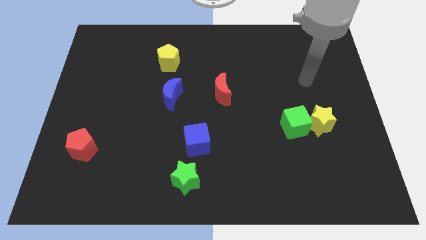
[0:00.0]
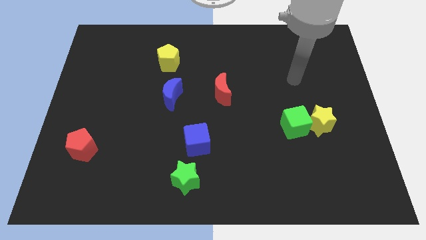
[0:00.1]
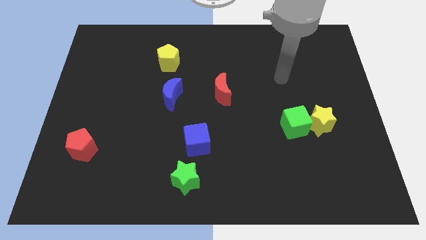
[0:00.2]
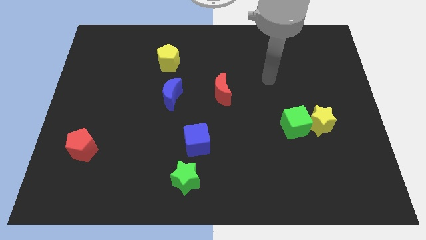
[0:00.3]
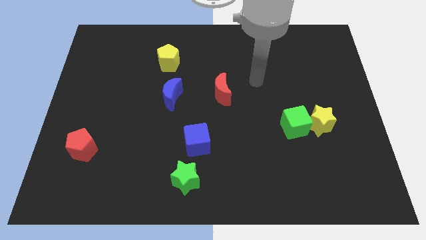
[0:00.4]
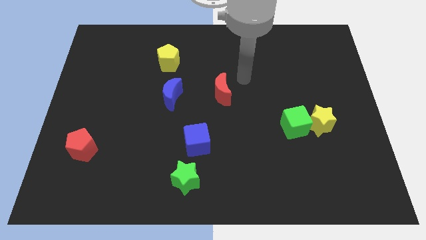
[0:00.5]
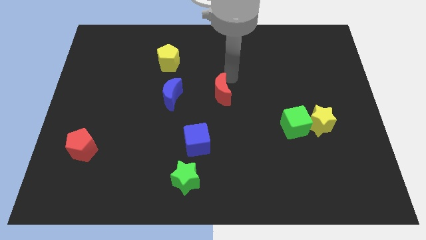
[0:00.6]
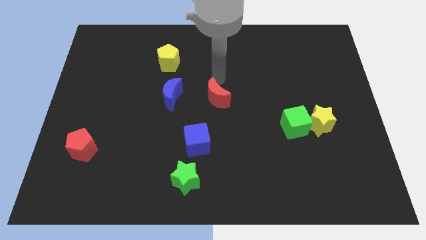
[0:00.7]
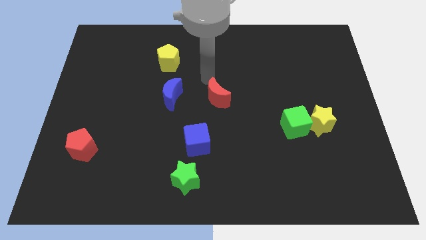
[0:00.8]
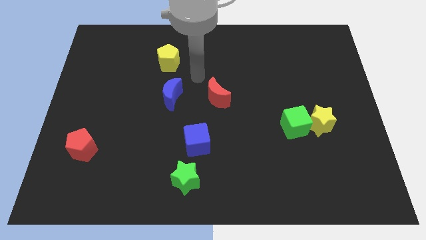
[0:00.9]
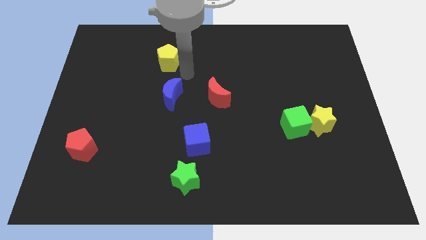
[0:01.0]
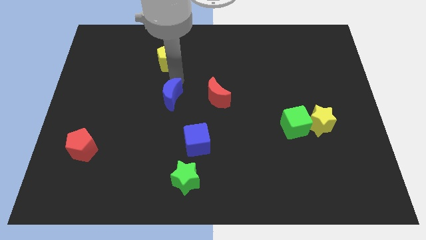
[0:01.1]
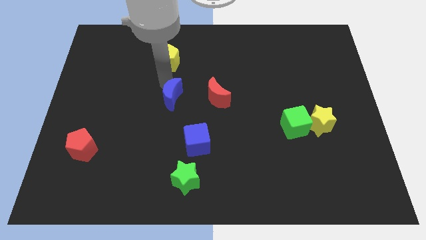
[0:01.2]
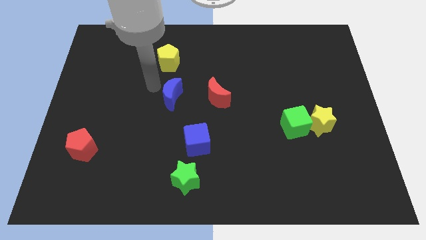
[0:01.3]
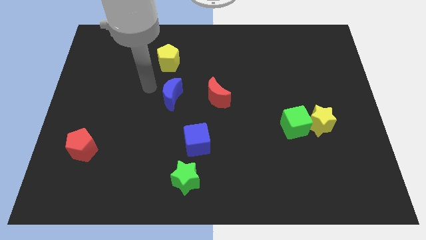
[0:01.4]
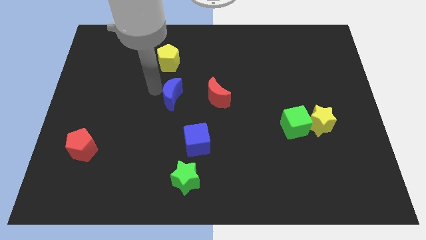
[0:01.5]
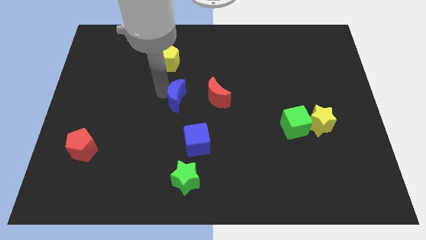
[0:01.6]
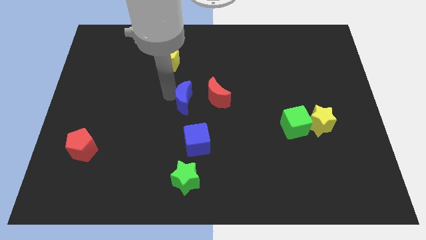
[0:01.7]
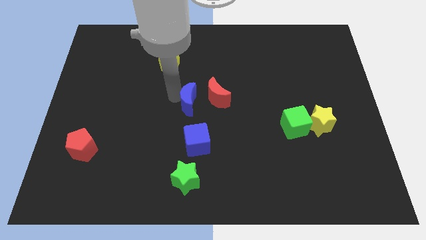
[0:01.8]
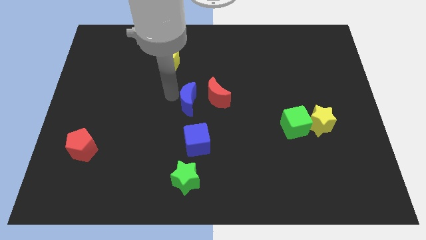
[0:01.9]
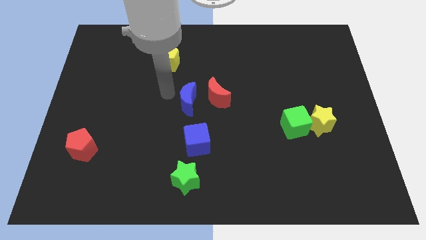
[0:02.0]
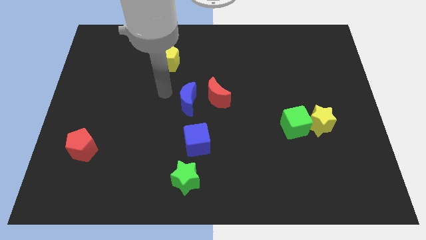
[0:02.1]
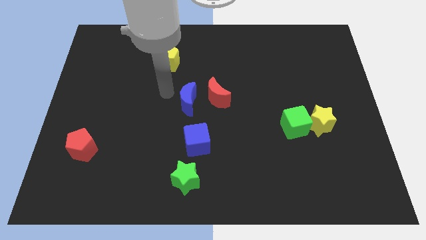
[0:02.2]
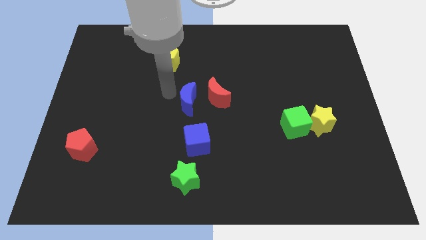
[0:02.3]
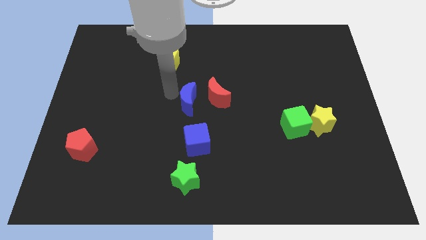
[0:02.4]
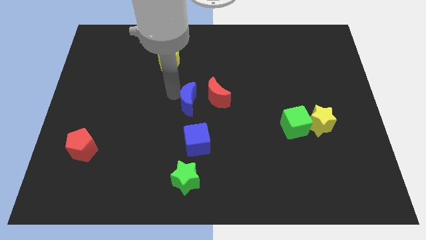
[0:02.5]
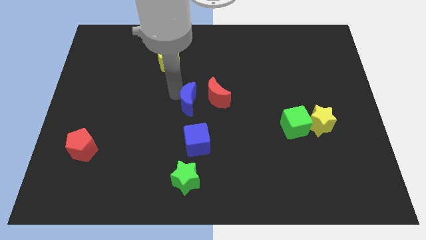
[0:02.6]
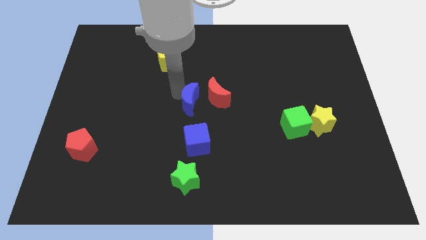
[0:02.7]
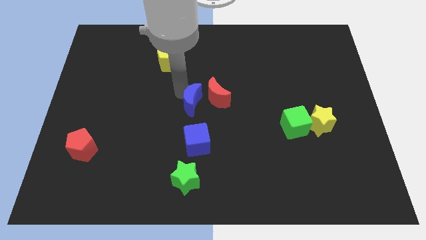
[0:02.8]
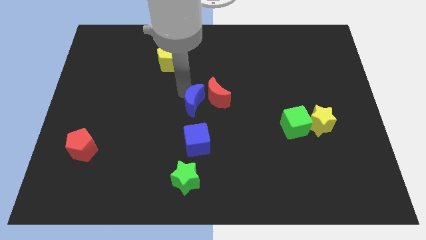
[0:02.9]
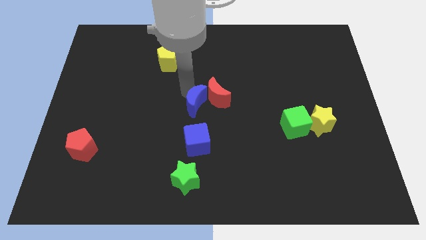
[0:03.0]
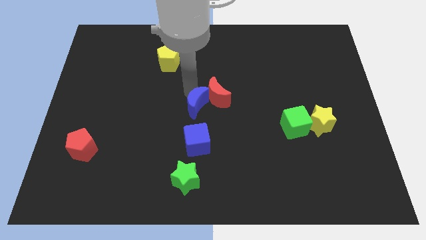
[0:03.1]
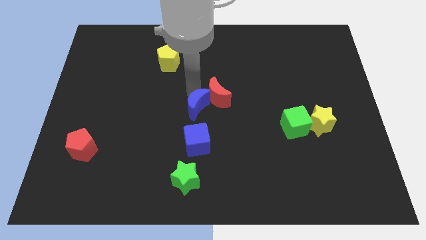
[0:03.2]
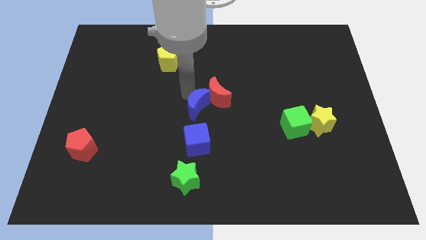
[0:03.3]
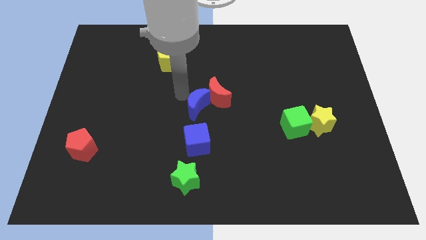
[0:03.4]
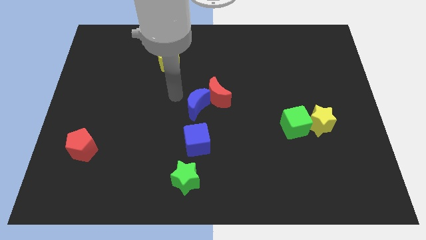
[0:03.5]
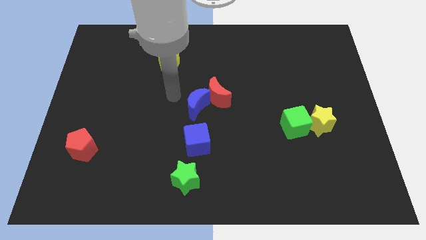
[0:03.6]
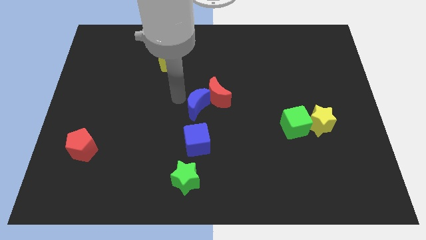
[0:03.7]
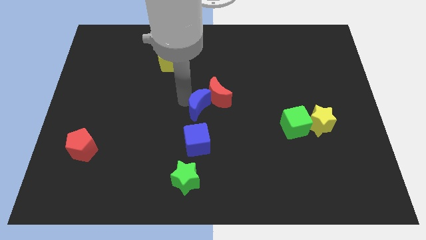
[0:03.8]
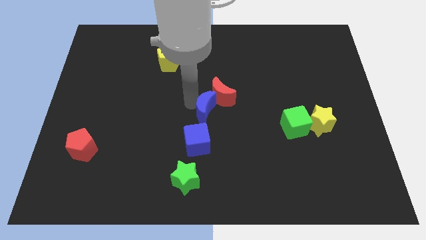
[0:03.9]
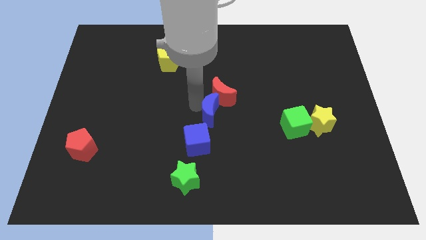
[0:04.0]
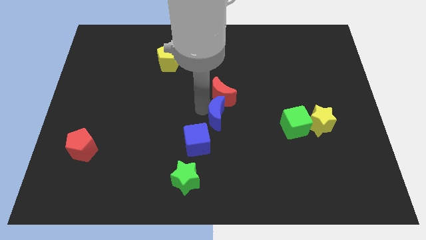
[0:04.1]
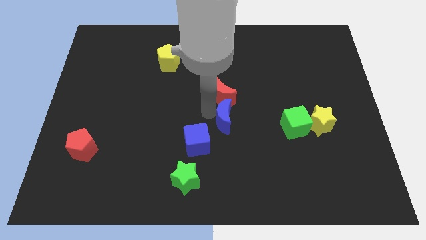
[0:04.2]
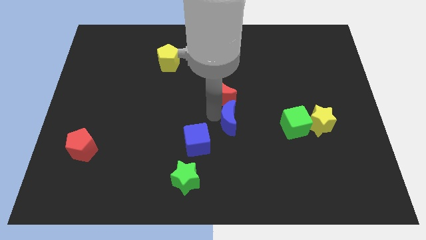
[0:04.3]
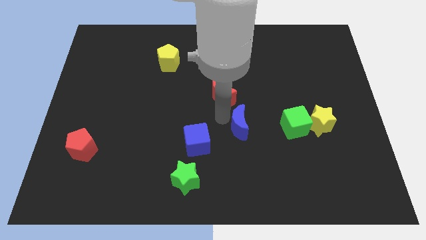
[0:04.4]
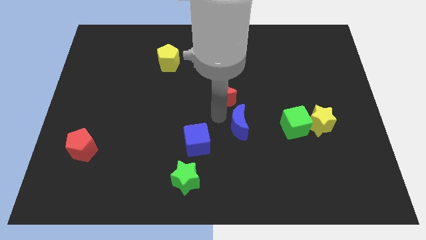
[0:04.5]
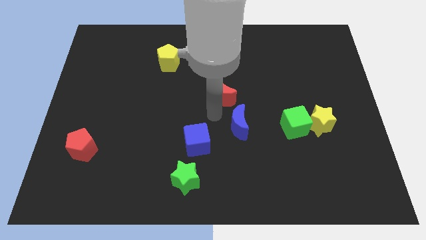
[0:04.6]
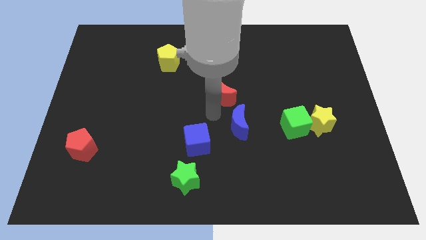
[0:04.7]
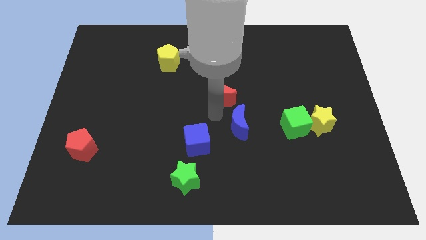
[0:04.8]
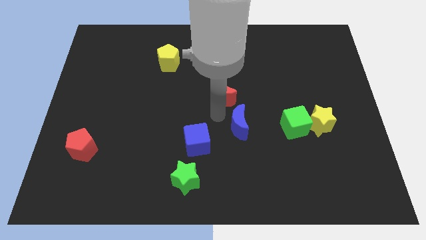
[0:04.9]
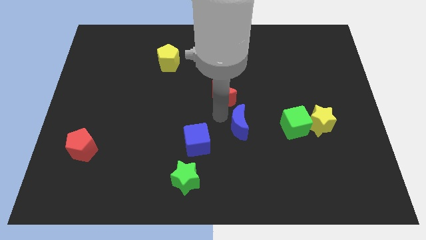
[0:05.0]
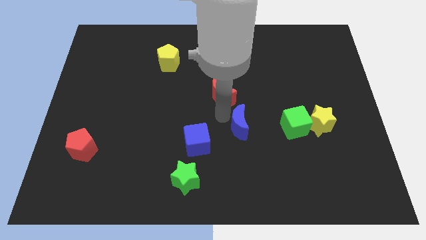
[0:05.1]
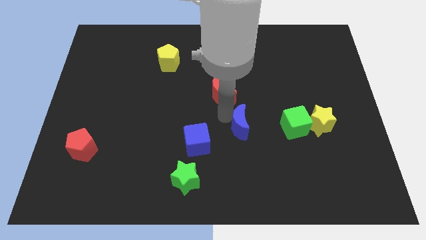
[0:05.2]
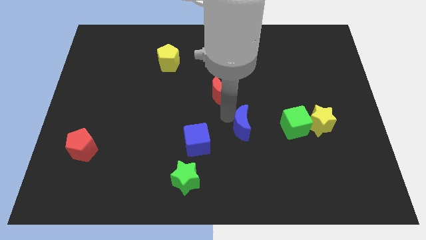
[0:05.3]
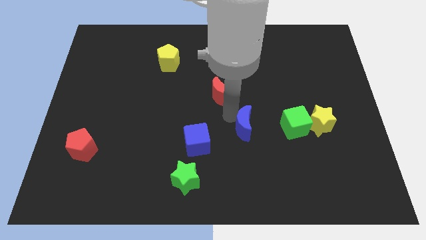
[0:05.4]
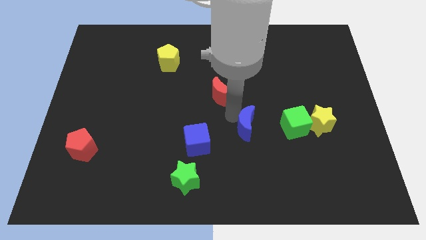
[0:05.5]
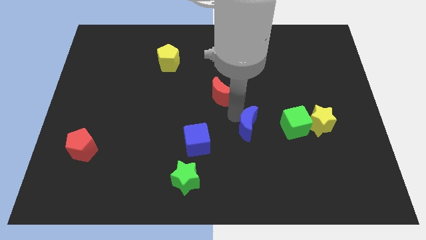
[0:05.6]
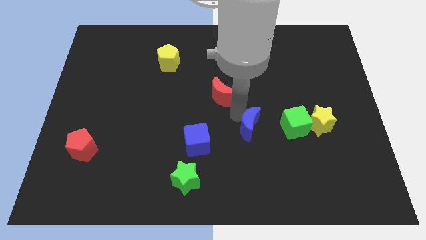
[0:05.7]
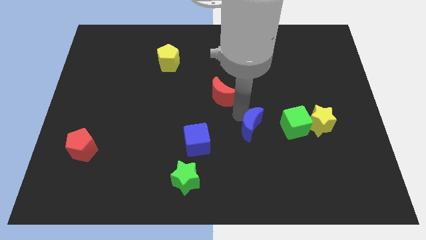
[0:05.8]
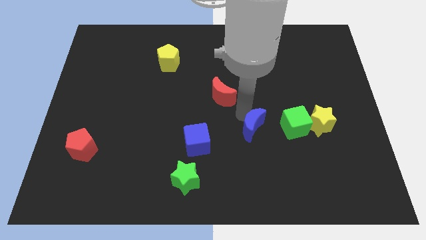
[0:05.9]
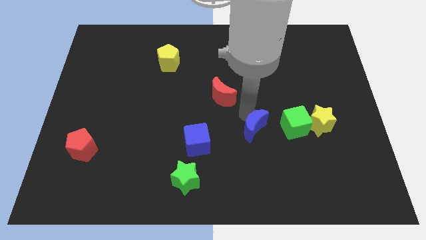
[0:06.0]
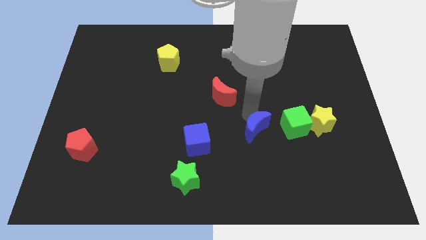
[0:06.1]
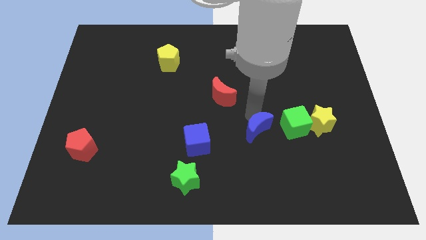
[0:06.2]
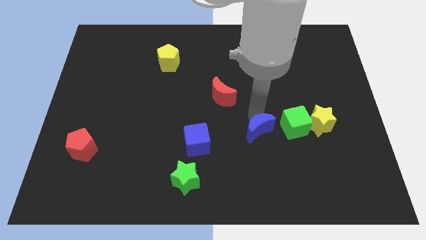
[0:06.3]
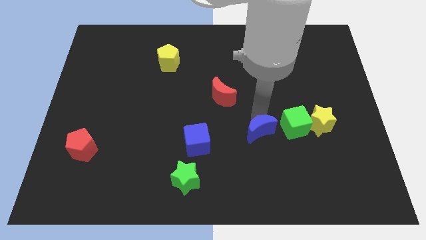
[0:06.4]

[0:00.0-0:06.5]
put the blue moon diagonally down and to the left of the green cube

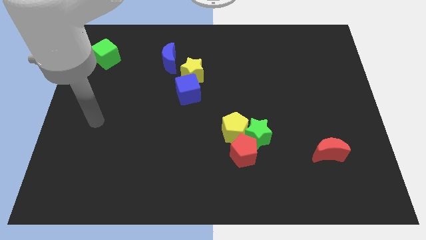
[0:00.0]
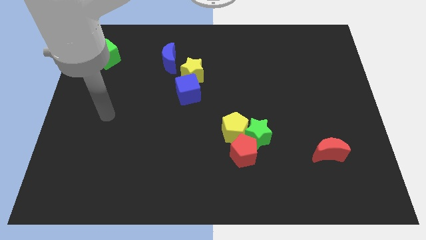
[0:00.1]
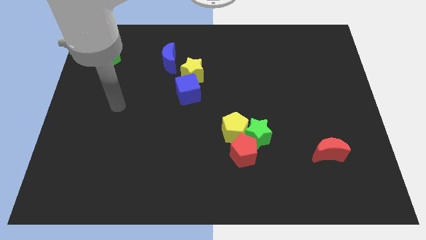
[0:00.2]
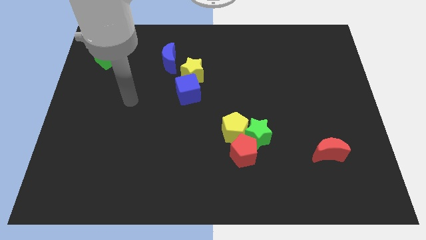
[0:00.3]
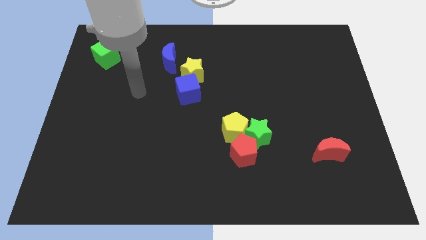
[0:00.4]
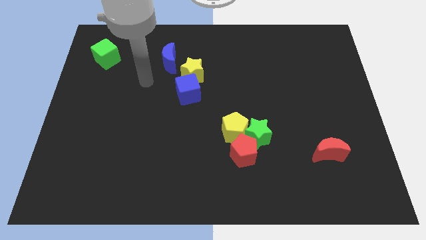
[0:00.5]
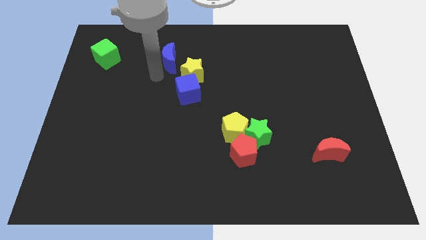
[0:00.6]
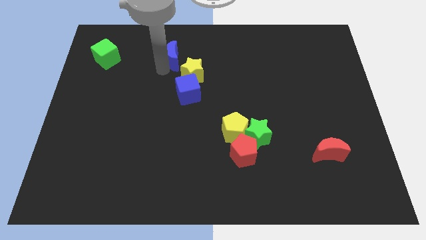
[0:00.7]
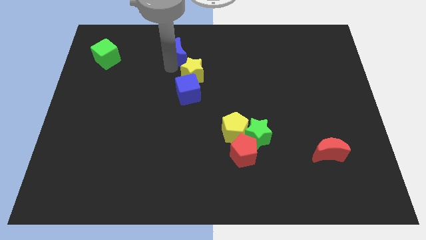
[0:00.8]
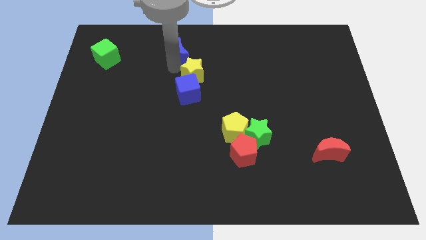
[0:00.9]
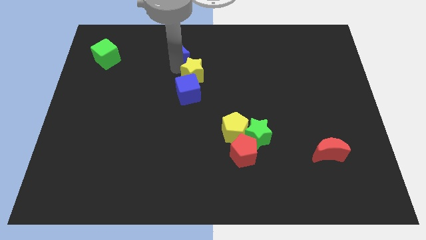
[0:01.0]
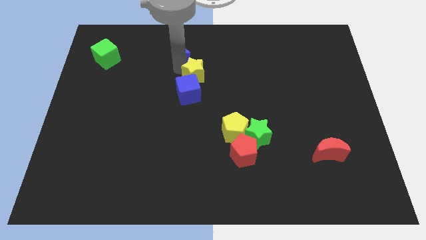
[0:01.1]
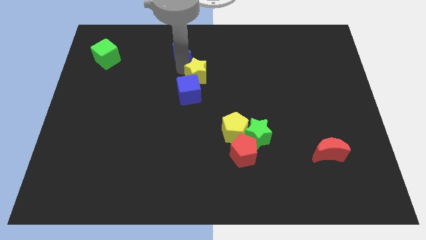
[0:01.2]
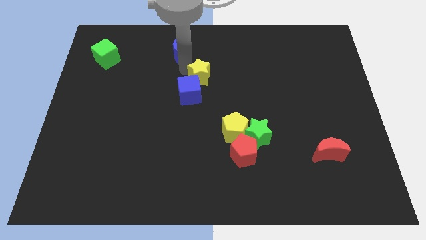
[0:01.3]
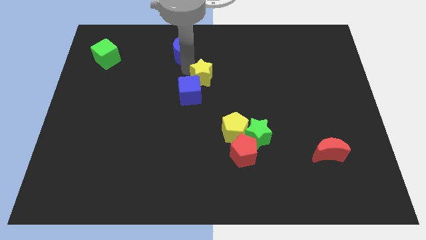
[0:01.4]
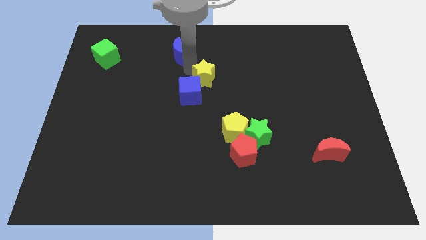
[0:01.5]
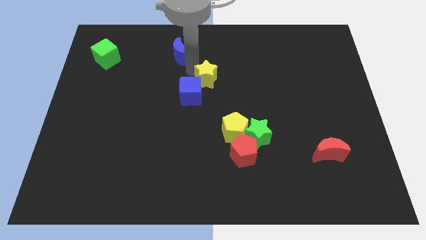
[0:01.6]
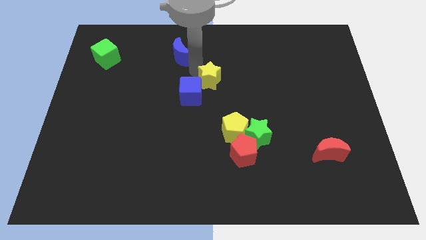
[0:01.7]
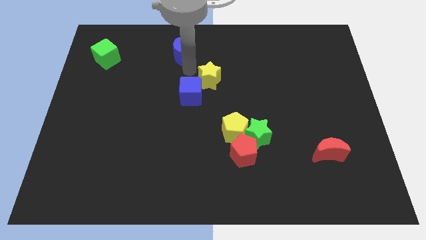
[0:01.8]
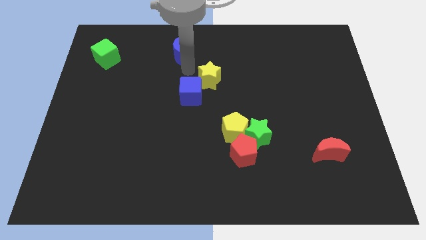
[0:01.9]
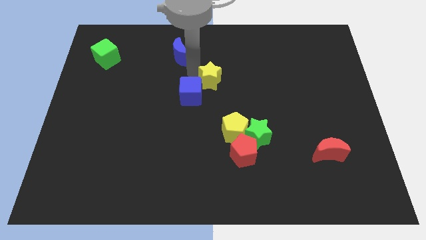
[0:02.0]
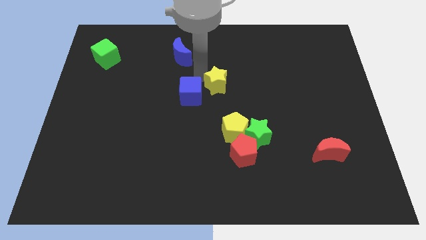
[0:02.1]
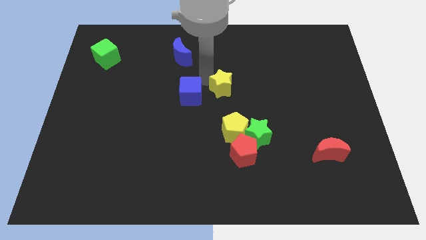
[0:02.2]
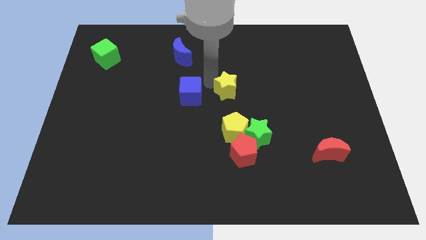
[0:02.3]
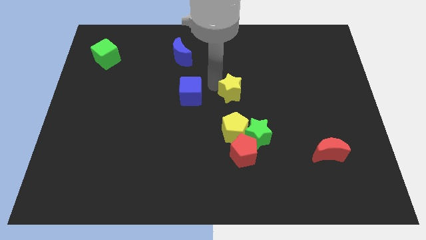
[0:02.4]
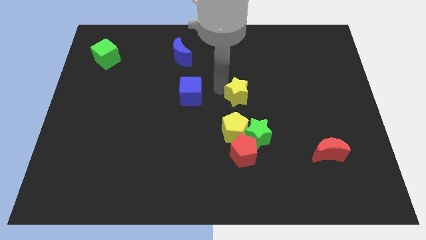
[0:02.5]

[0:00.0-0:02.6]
slide the yellow star above the green star
